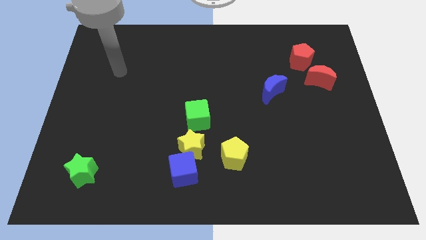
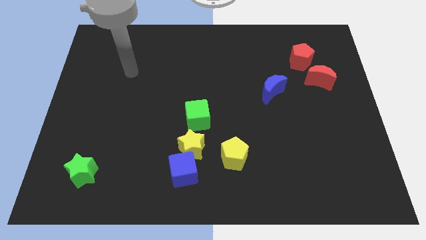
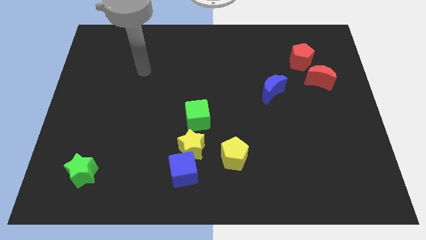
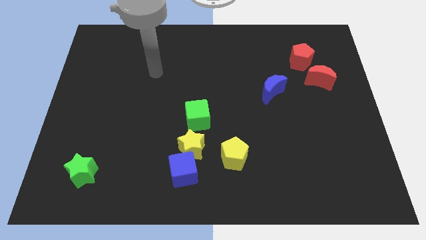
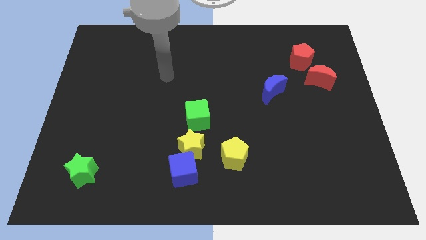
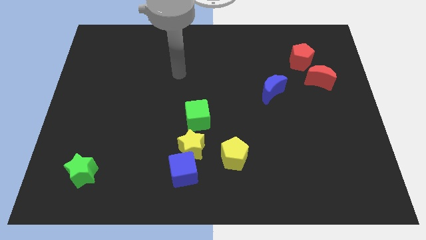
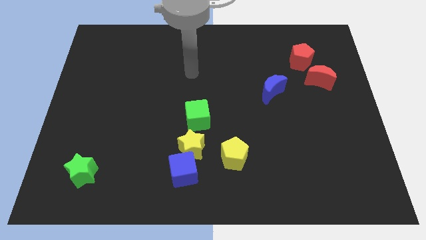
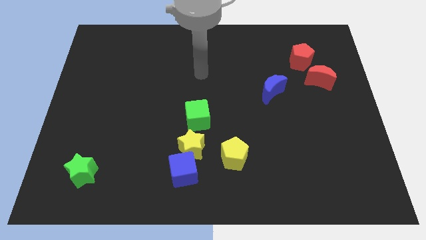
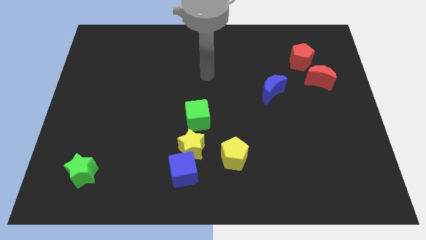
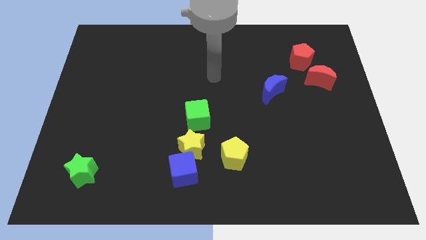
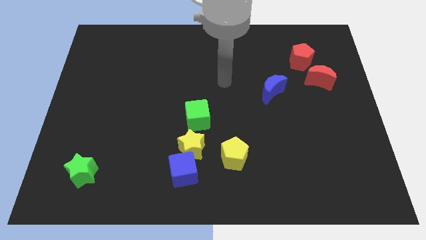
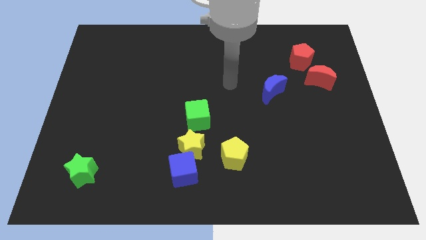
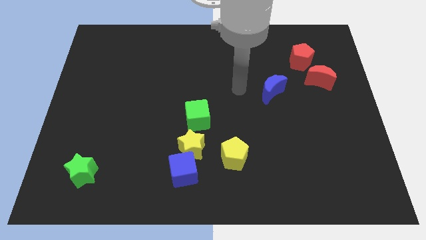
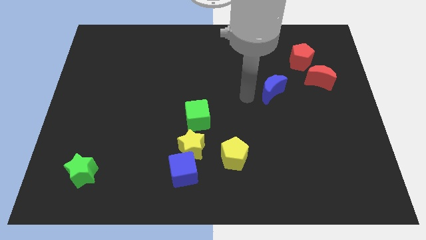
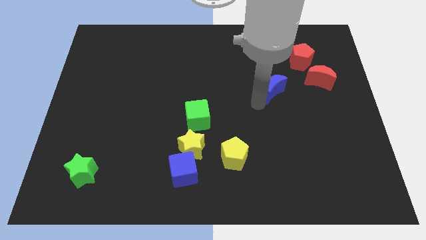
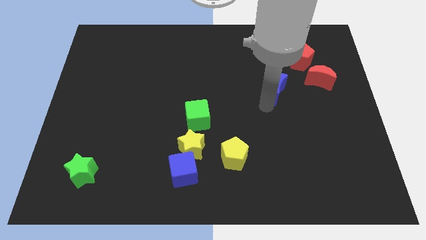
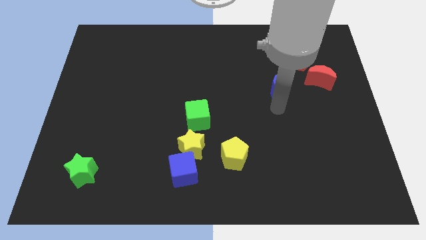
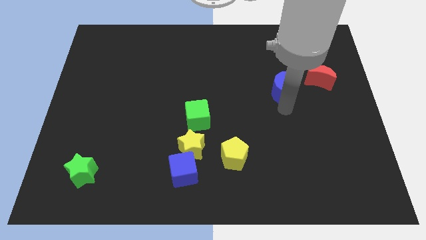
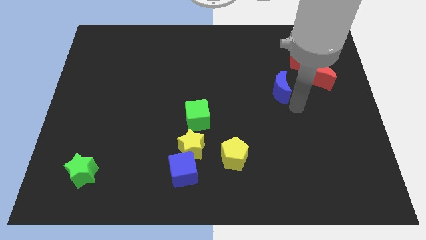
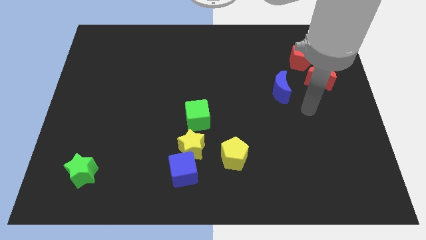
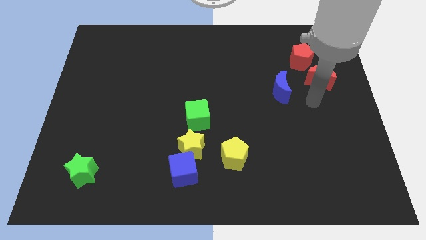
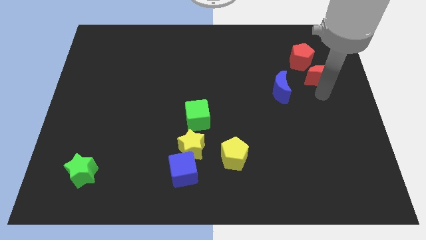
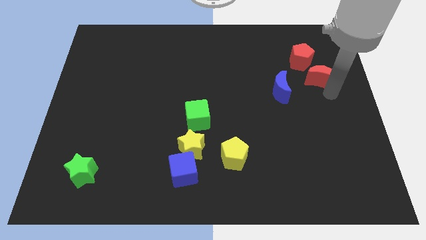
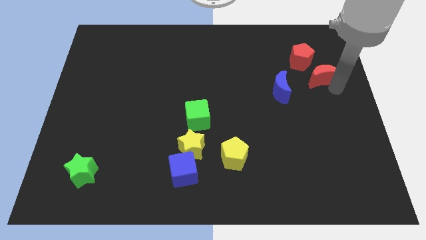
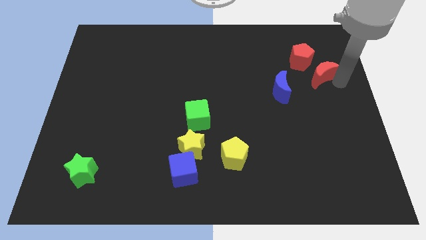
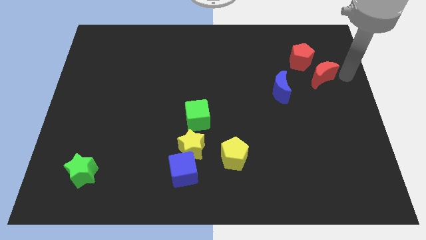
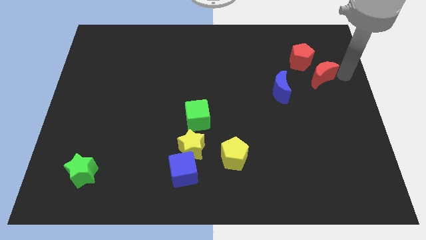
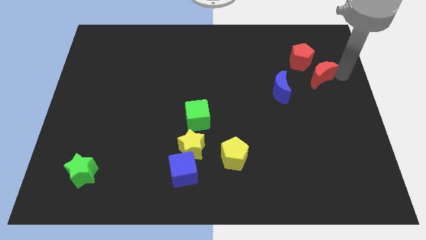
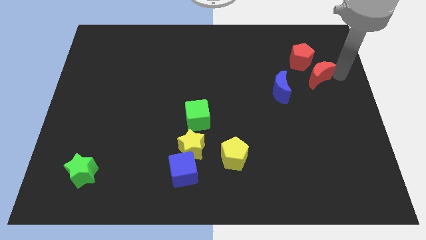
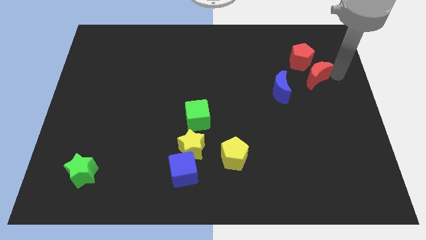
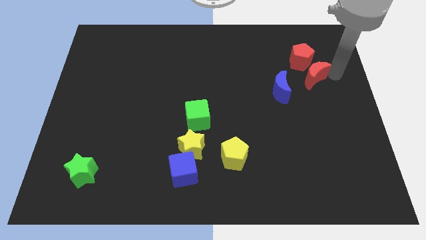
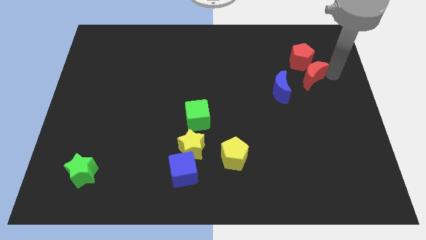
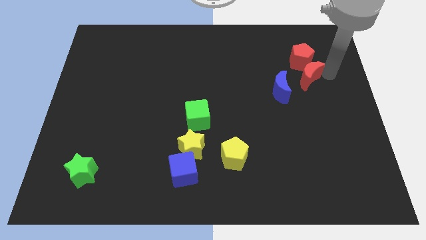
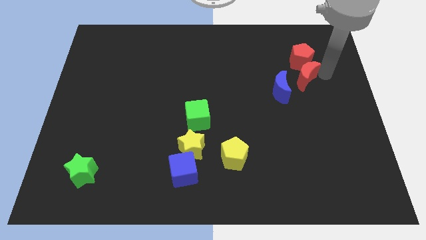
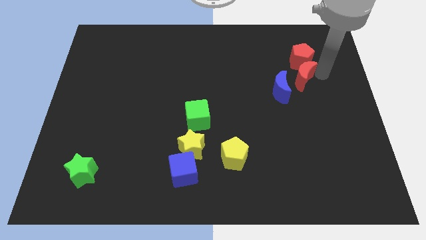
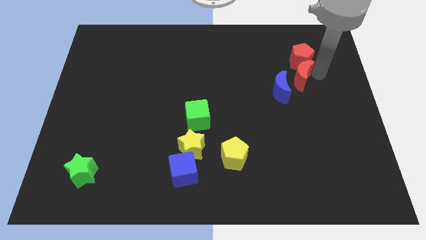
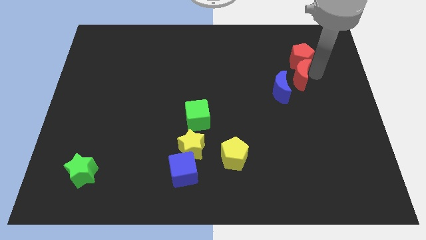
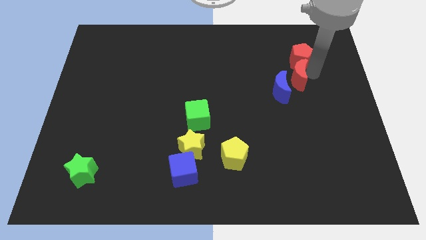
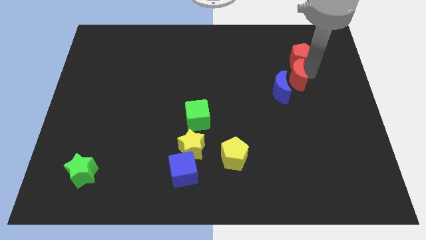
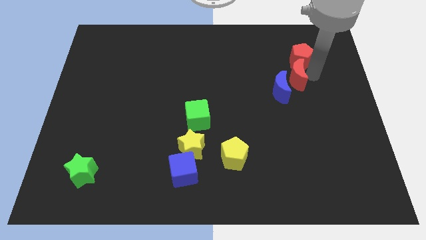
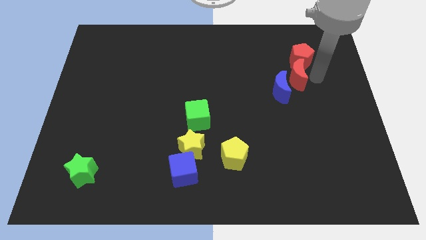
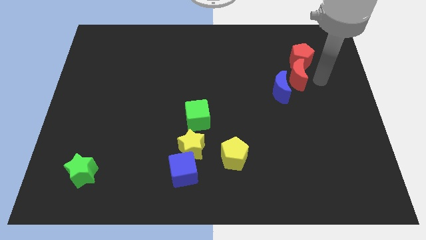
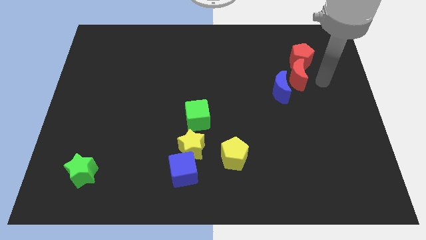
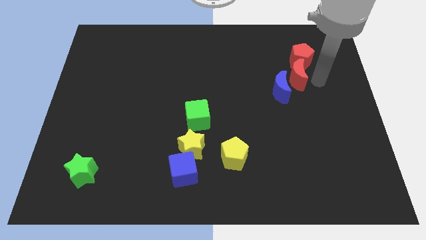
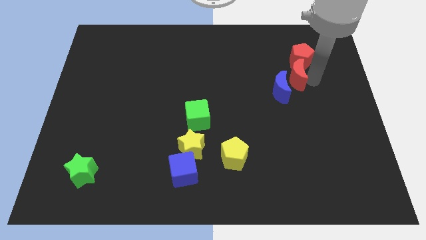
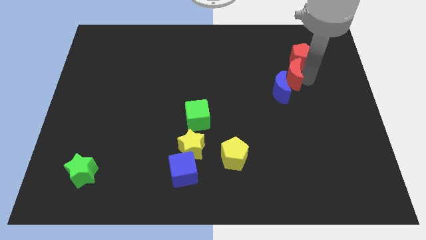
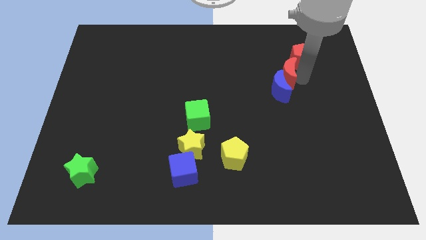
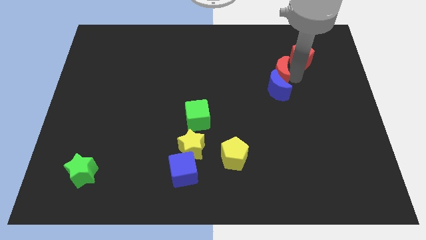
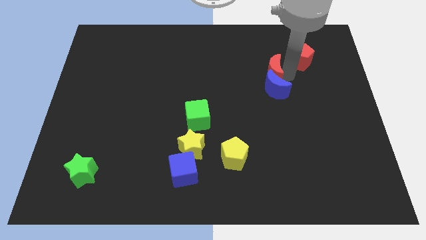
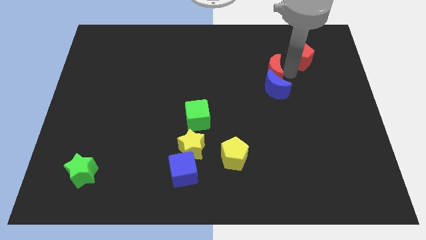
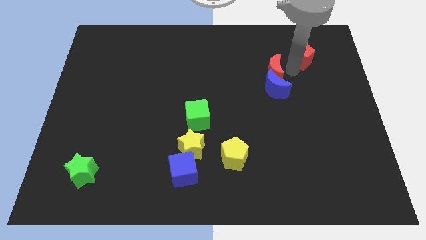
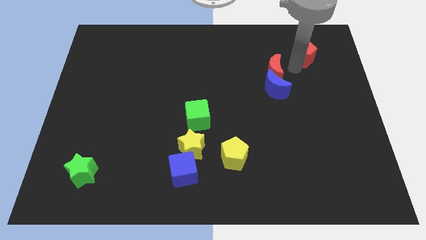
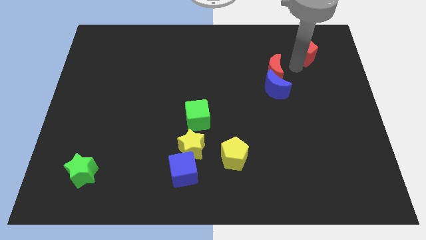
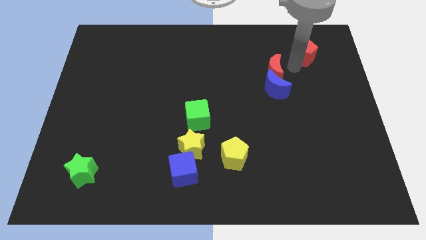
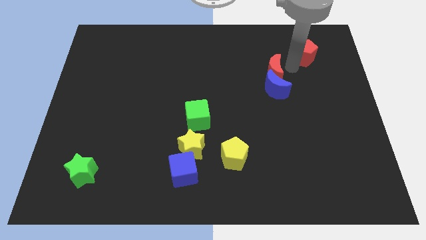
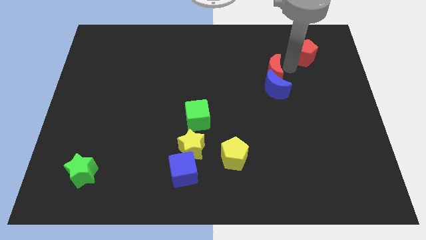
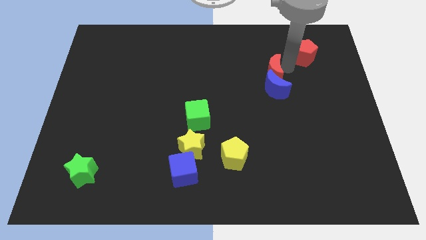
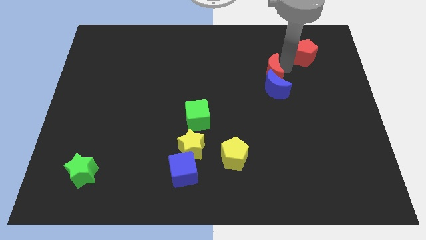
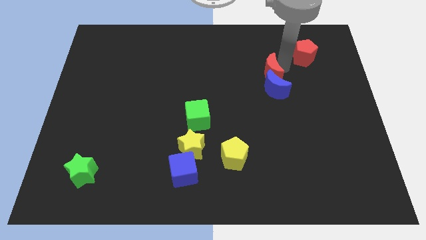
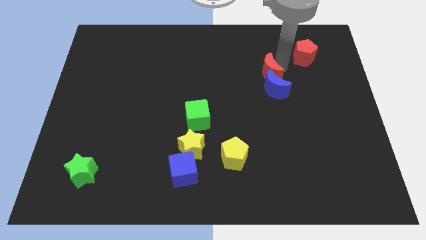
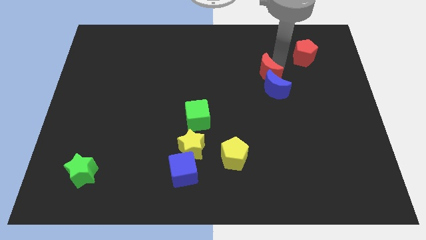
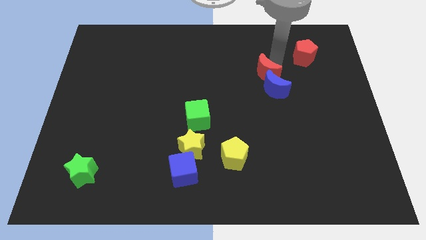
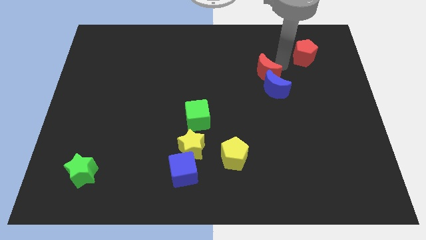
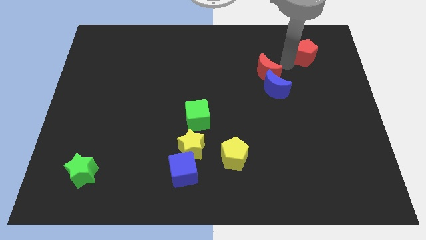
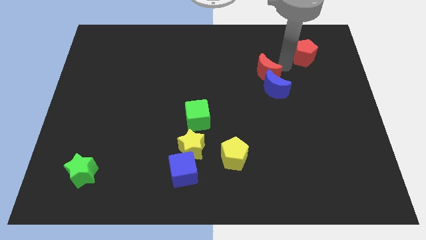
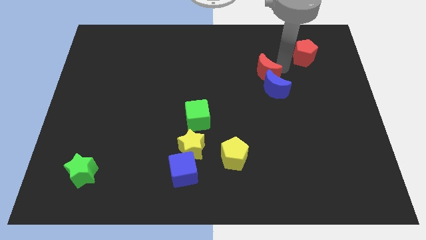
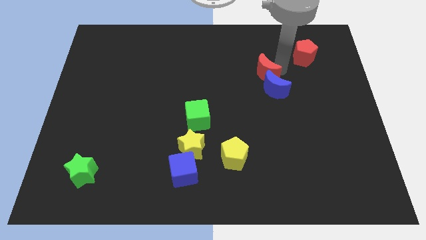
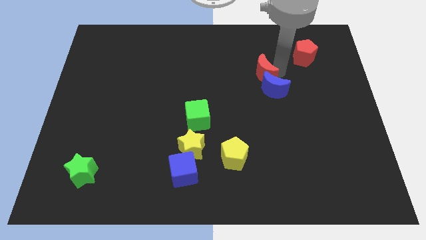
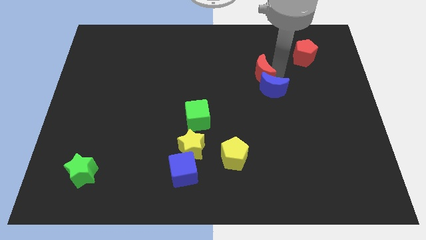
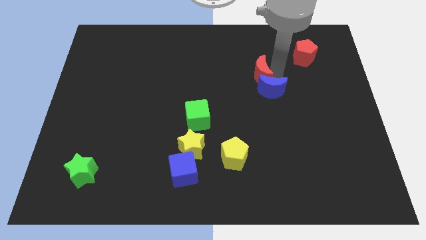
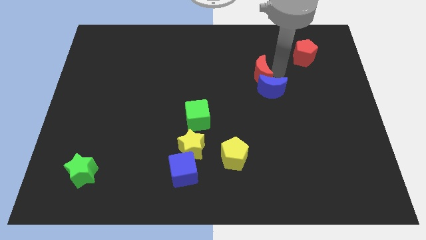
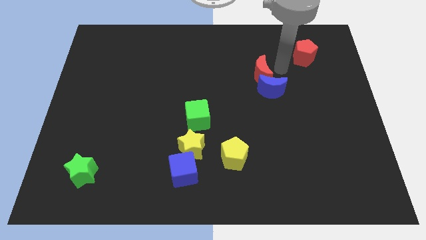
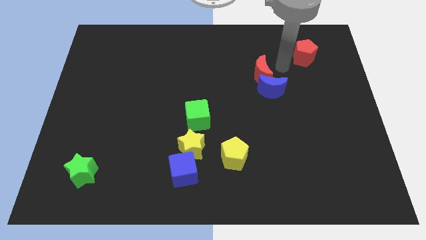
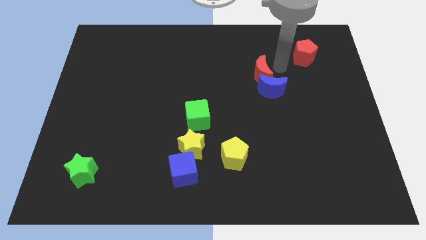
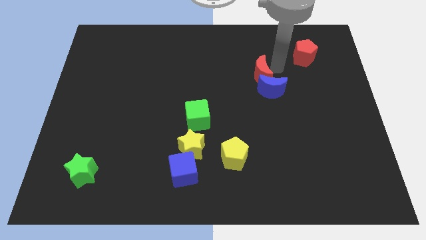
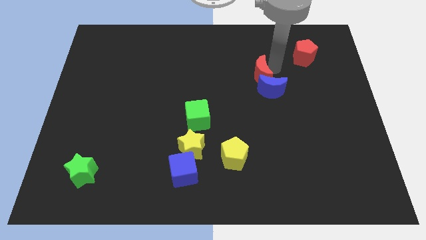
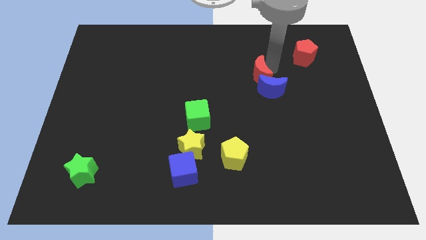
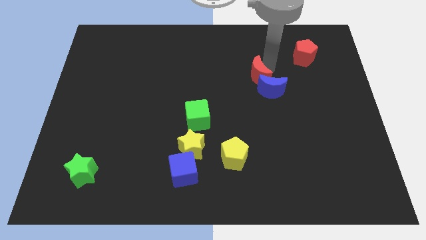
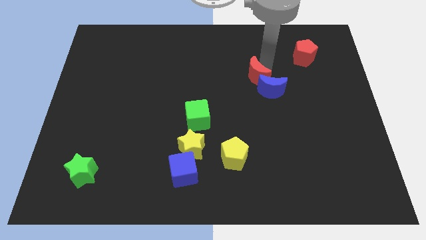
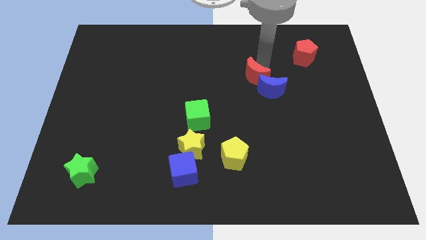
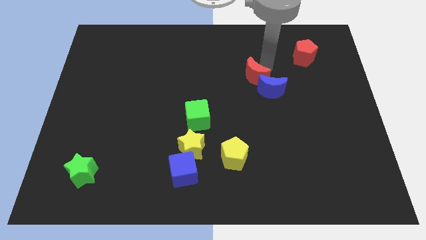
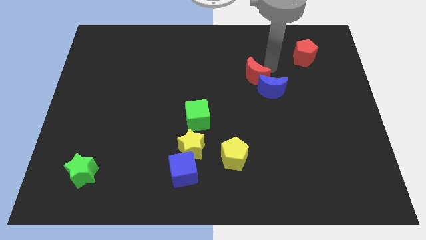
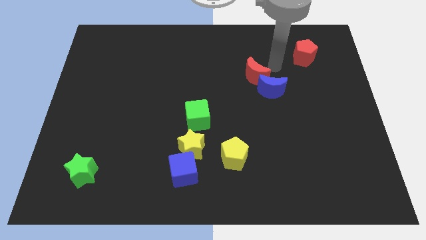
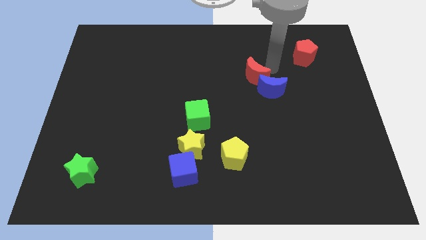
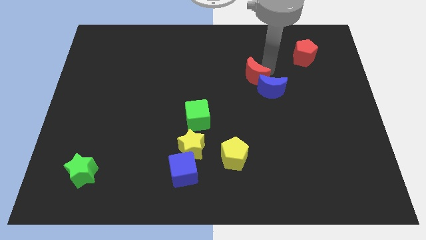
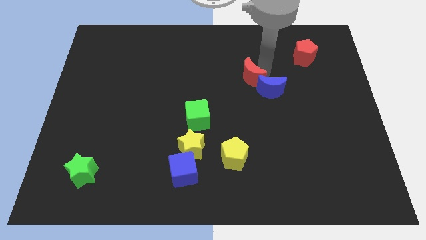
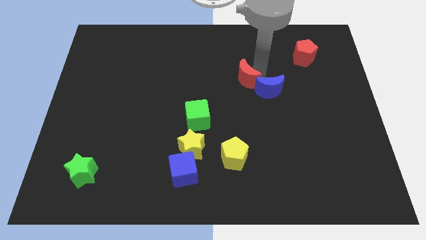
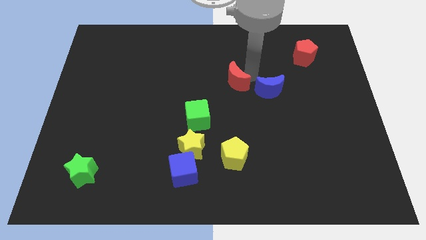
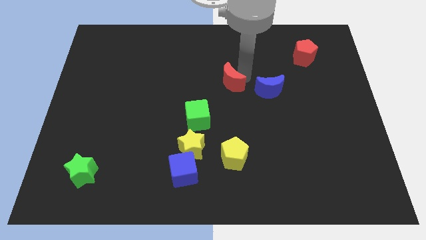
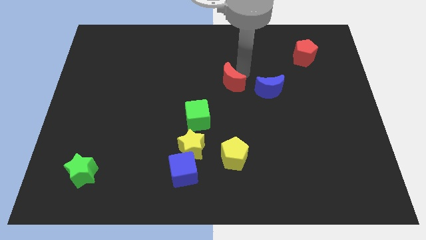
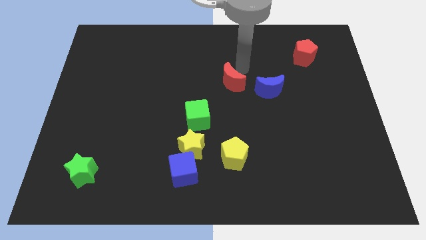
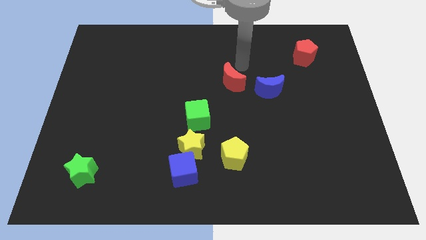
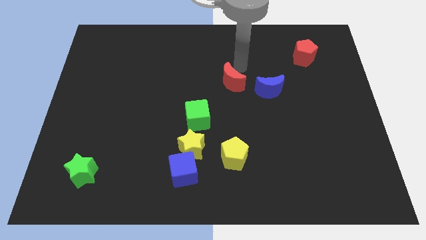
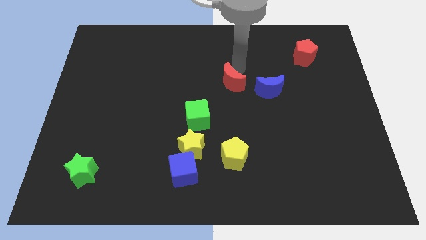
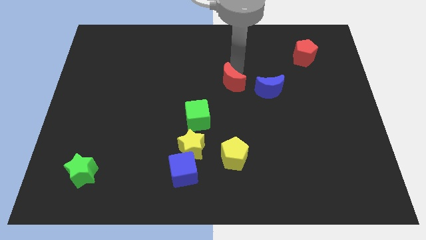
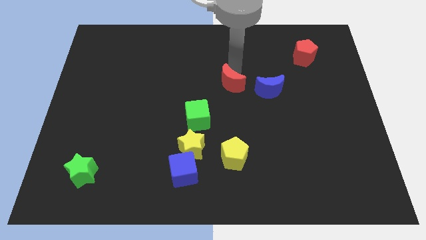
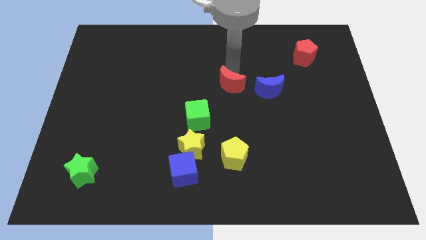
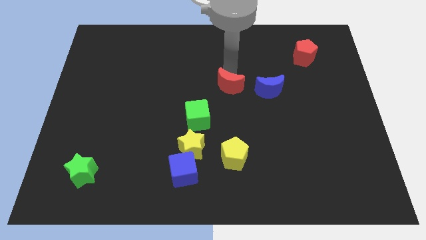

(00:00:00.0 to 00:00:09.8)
push the red moon diagonally up and to the right of the green cube
